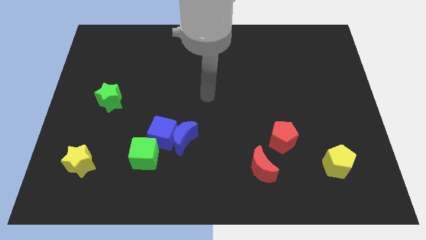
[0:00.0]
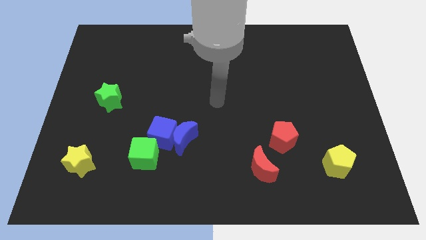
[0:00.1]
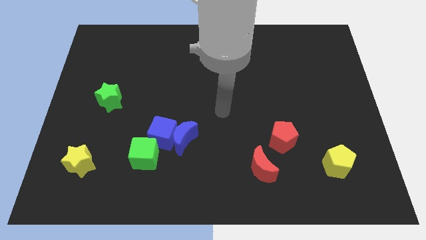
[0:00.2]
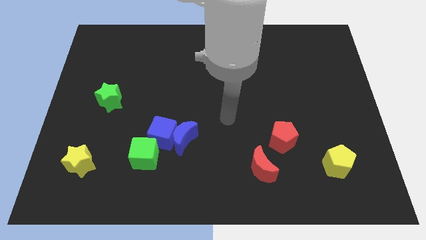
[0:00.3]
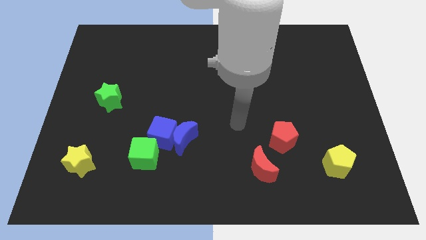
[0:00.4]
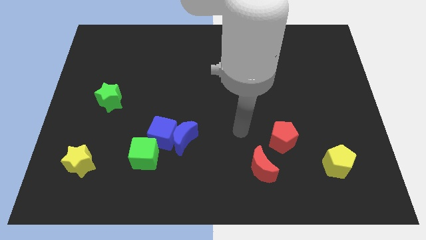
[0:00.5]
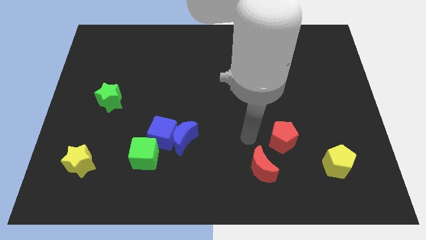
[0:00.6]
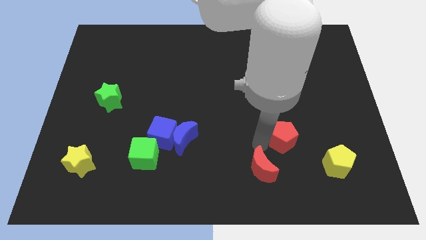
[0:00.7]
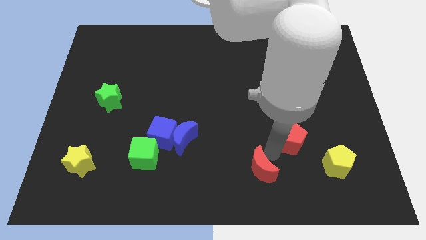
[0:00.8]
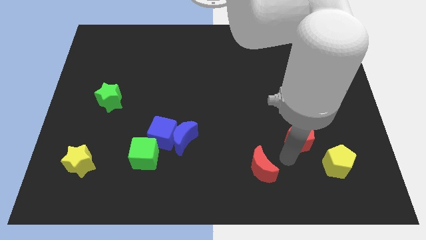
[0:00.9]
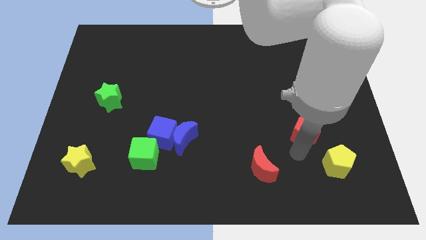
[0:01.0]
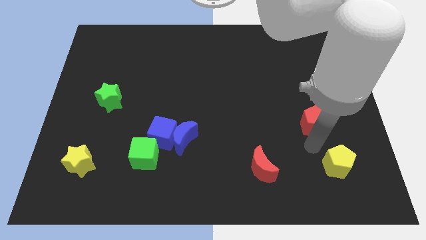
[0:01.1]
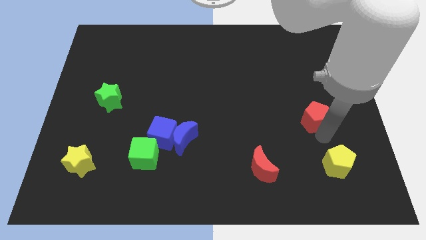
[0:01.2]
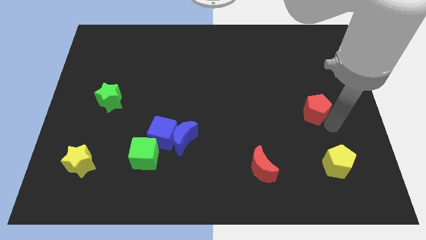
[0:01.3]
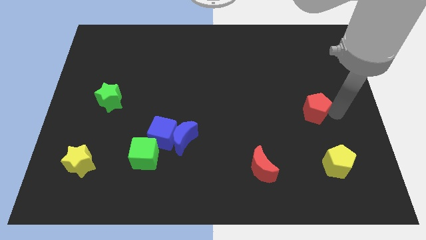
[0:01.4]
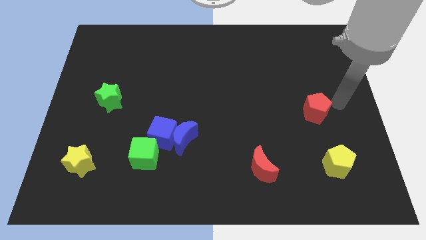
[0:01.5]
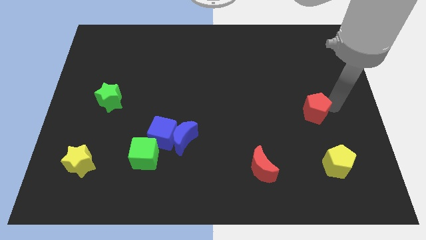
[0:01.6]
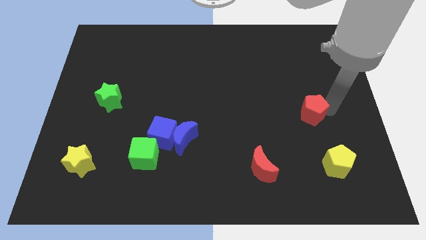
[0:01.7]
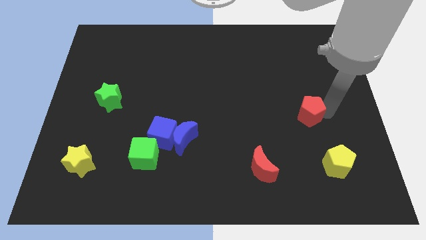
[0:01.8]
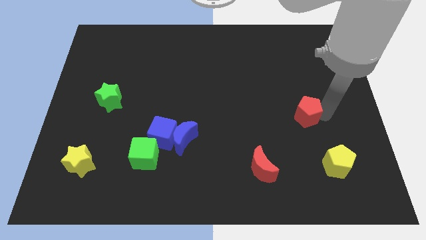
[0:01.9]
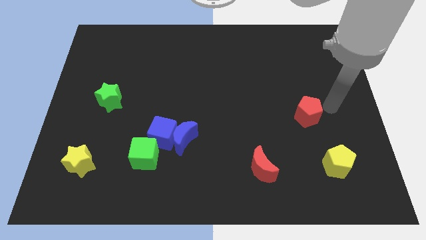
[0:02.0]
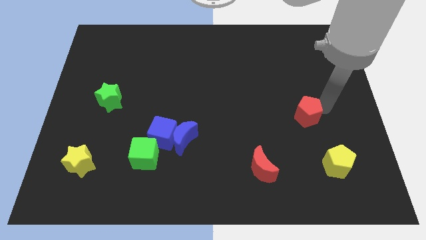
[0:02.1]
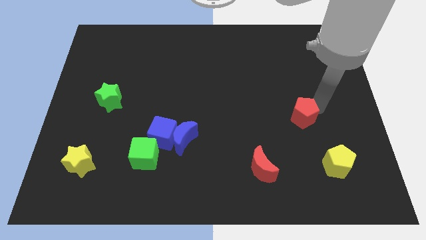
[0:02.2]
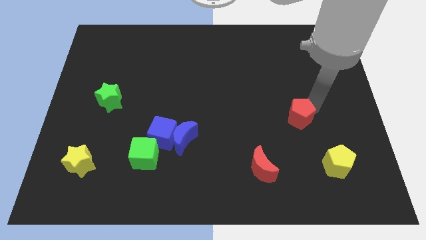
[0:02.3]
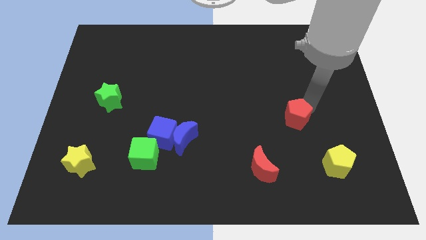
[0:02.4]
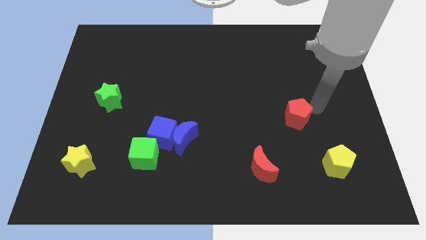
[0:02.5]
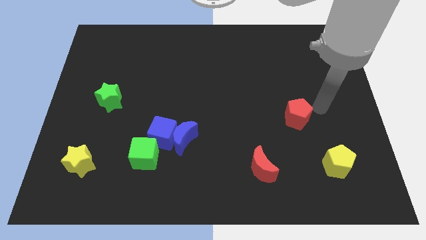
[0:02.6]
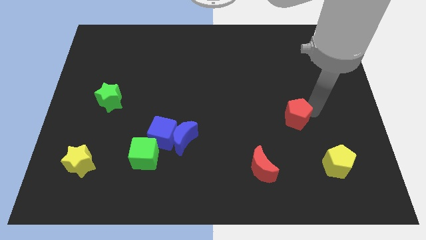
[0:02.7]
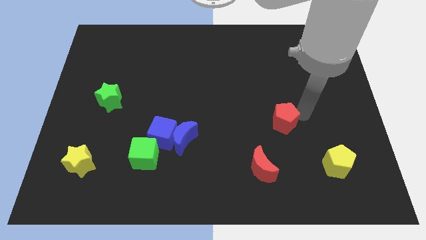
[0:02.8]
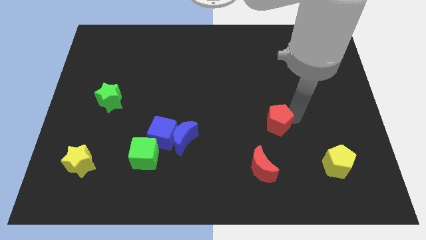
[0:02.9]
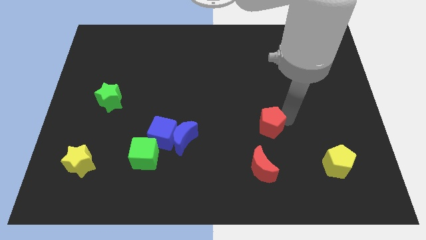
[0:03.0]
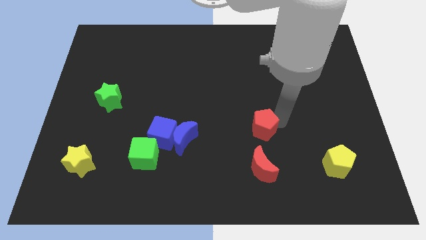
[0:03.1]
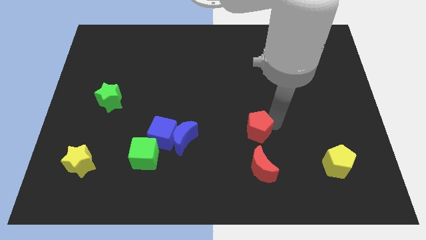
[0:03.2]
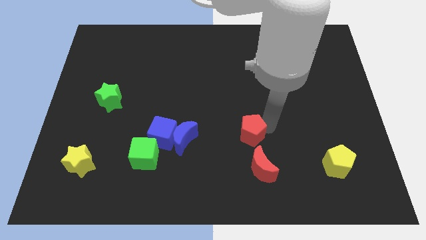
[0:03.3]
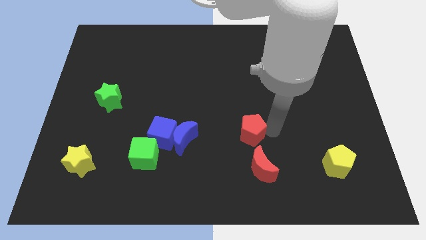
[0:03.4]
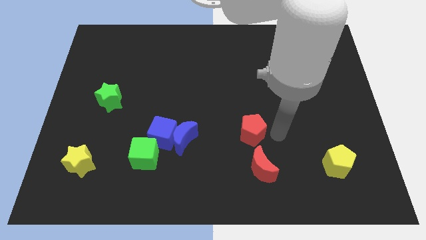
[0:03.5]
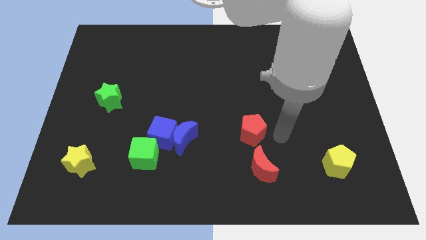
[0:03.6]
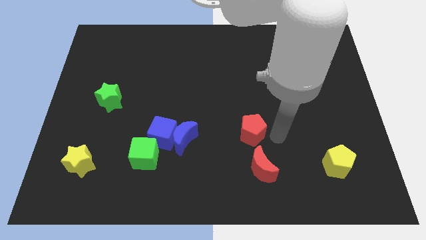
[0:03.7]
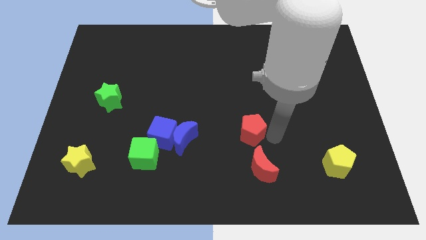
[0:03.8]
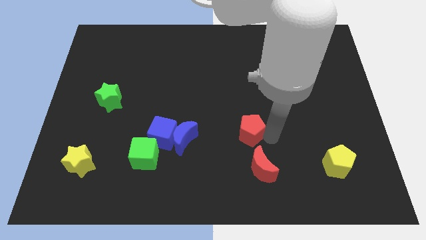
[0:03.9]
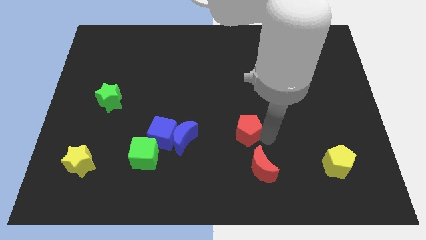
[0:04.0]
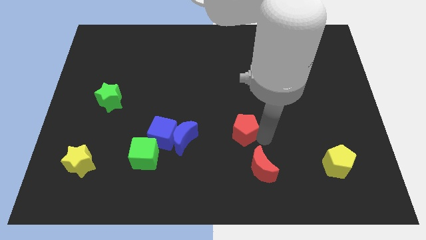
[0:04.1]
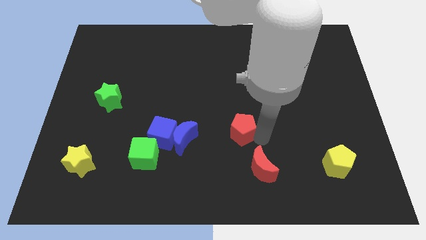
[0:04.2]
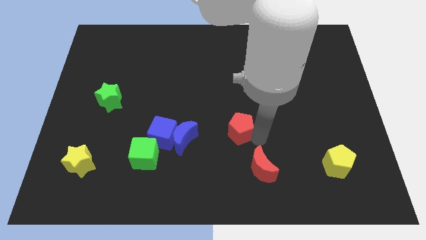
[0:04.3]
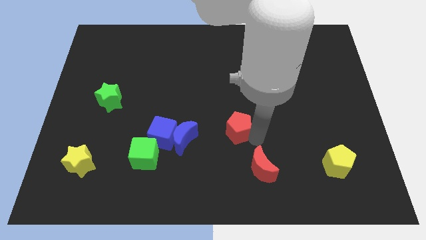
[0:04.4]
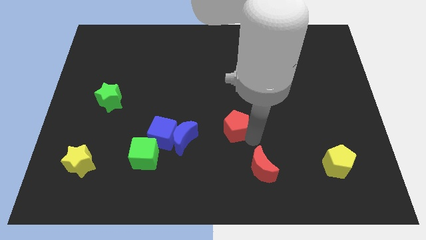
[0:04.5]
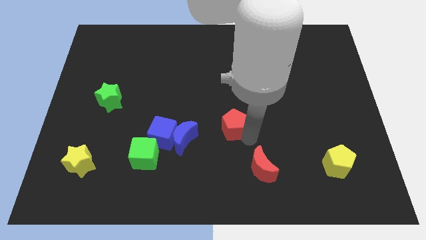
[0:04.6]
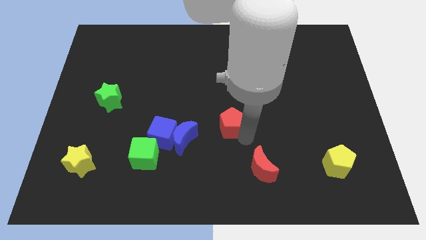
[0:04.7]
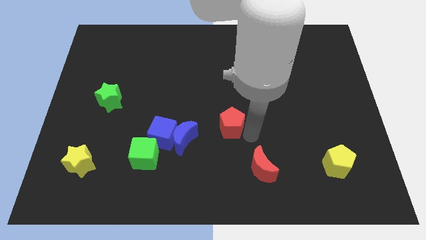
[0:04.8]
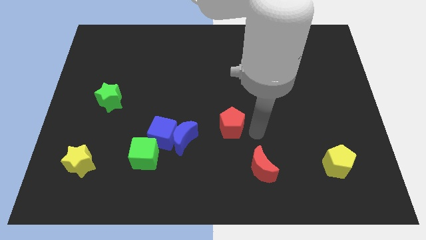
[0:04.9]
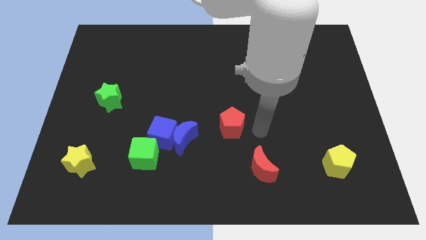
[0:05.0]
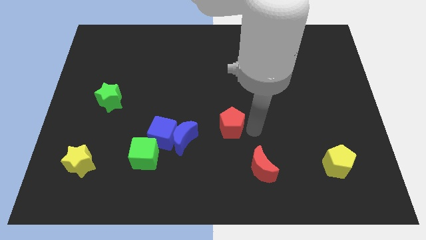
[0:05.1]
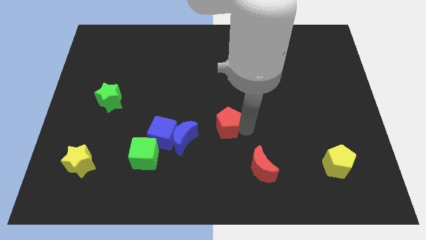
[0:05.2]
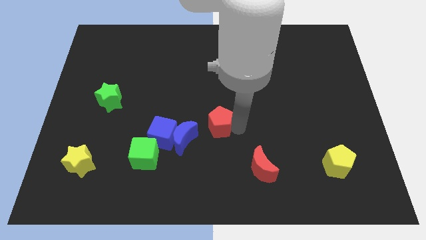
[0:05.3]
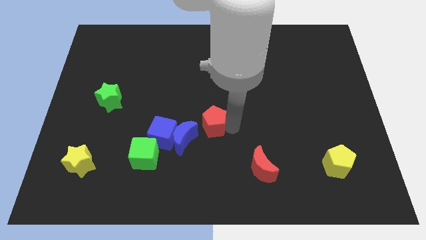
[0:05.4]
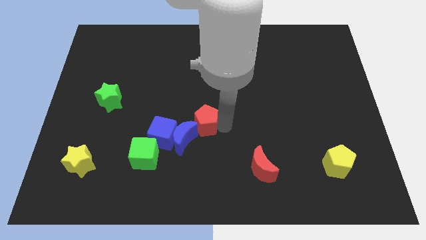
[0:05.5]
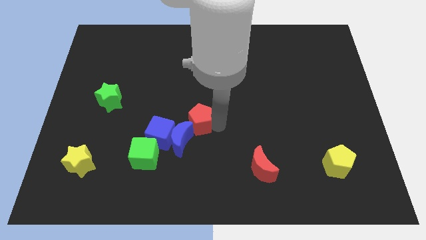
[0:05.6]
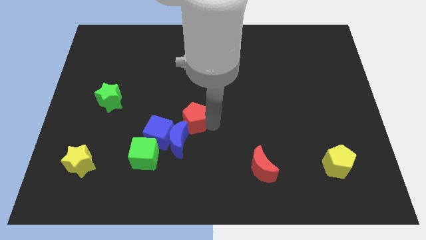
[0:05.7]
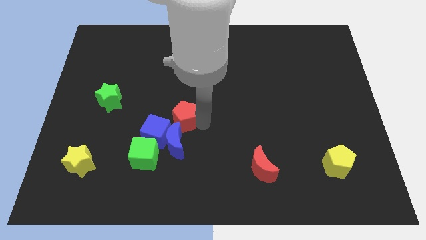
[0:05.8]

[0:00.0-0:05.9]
move the red pentagon to the left

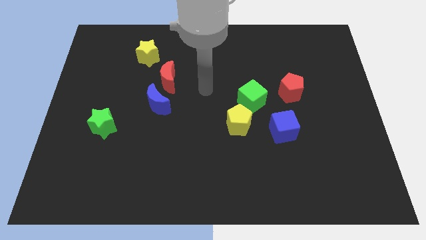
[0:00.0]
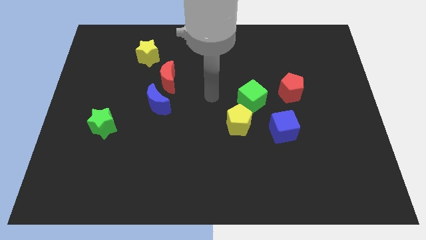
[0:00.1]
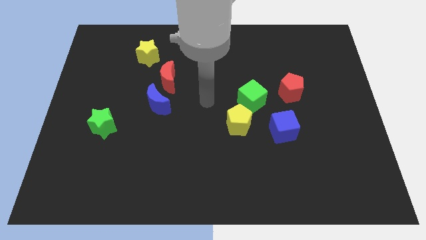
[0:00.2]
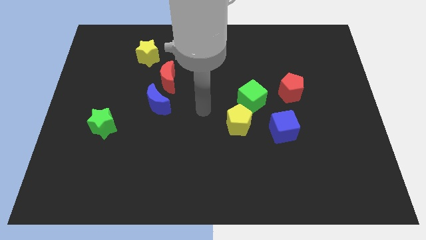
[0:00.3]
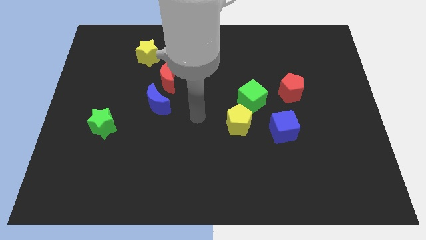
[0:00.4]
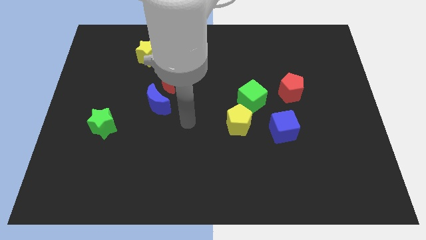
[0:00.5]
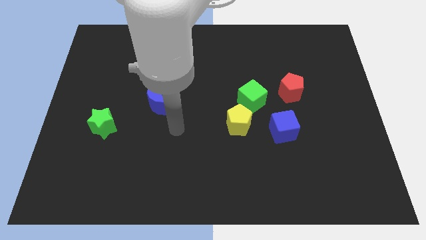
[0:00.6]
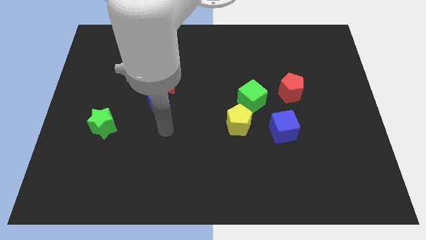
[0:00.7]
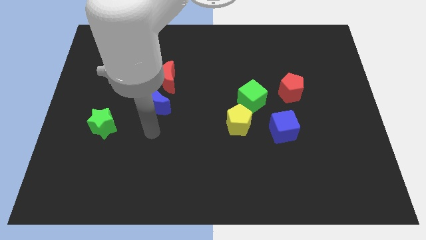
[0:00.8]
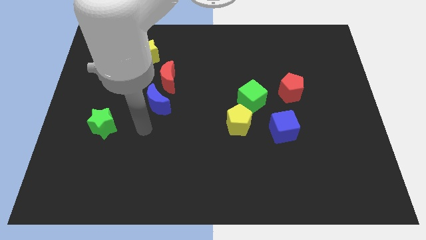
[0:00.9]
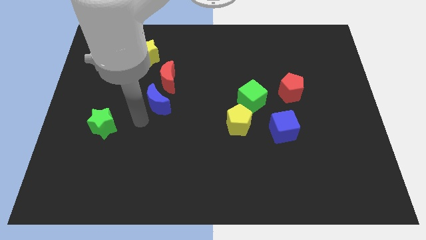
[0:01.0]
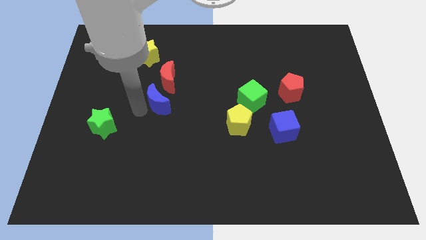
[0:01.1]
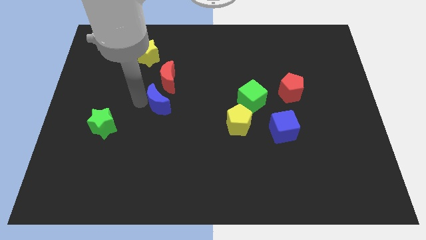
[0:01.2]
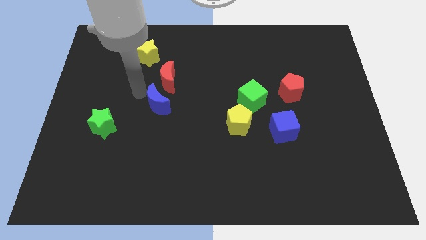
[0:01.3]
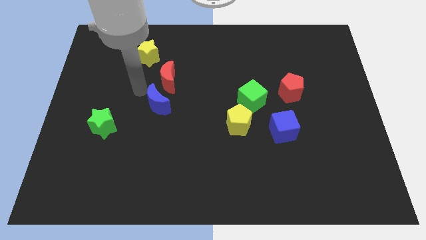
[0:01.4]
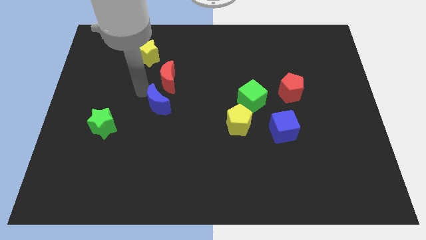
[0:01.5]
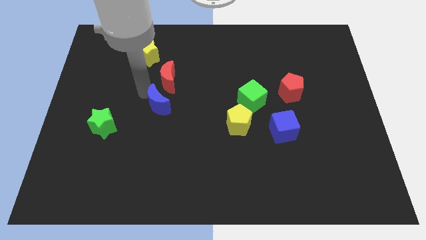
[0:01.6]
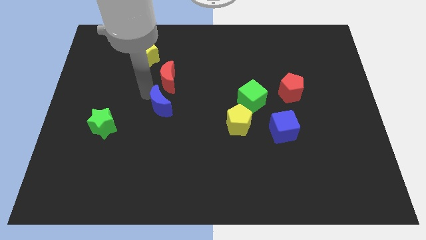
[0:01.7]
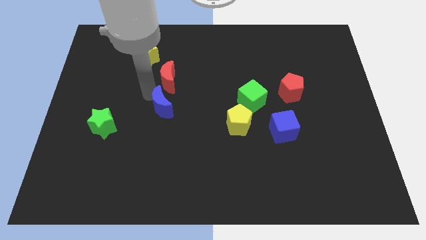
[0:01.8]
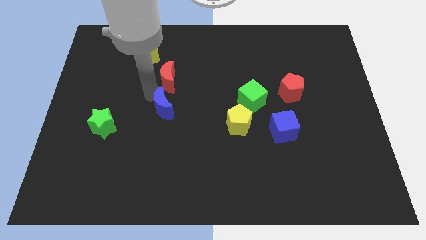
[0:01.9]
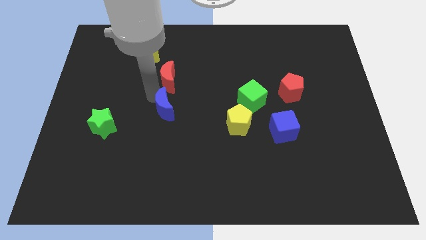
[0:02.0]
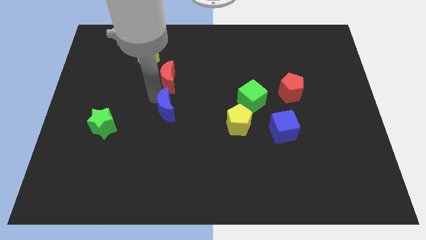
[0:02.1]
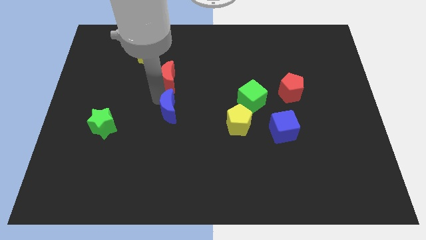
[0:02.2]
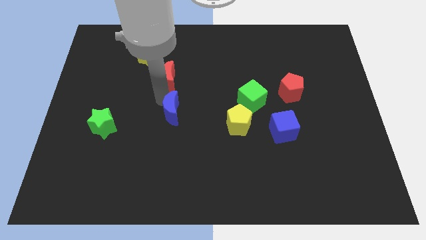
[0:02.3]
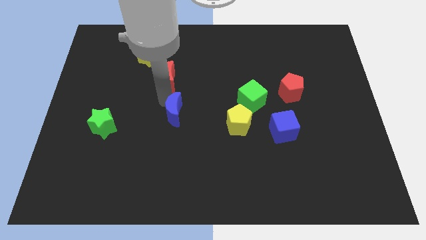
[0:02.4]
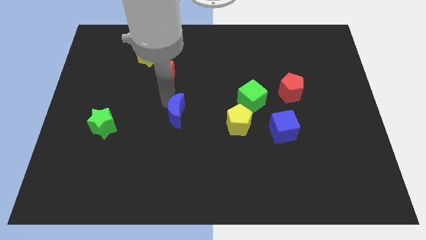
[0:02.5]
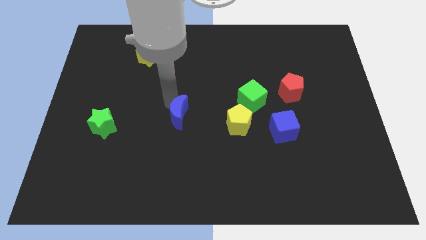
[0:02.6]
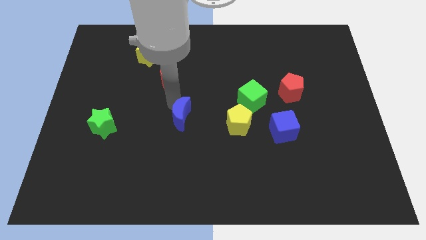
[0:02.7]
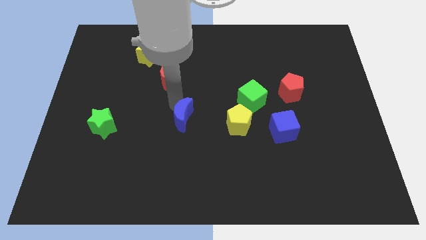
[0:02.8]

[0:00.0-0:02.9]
move the blue moon a little bit down and then to the right
